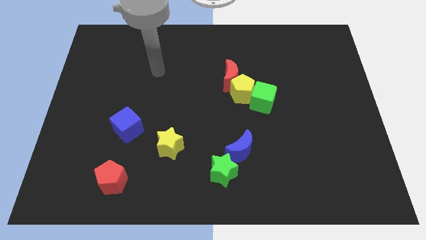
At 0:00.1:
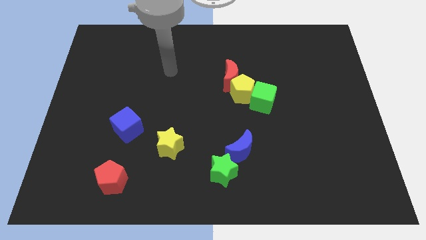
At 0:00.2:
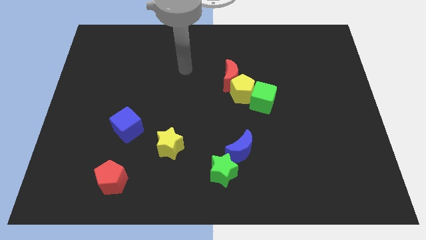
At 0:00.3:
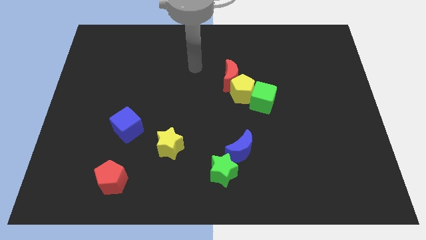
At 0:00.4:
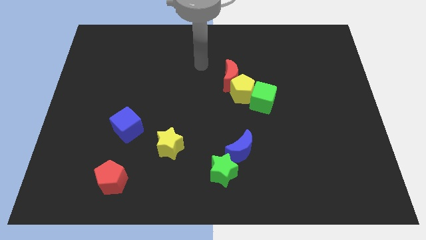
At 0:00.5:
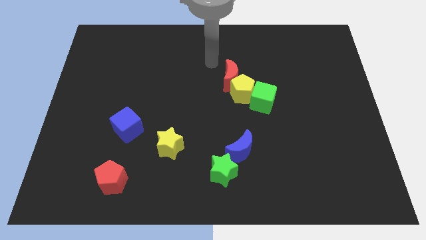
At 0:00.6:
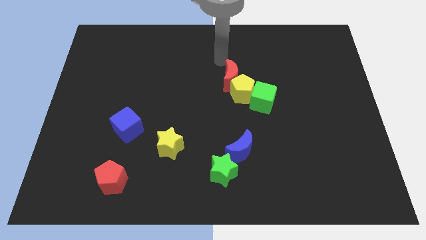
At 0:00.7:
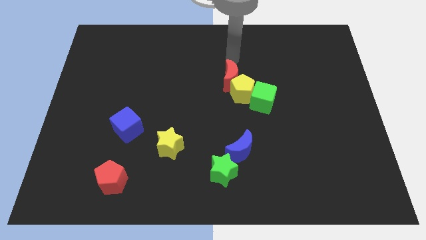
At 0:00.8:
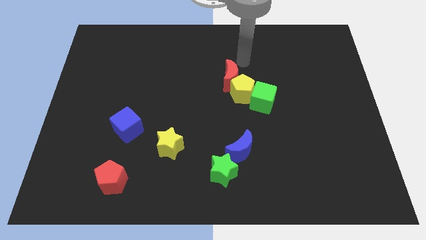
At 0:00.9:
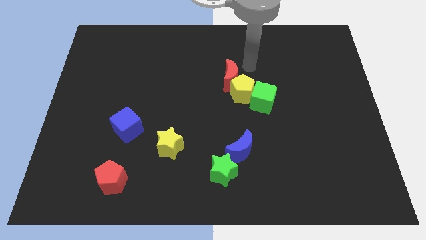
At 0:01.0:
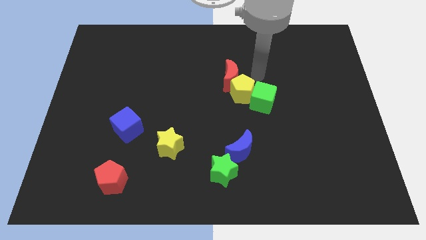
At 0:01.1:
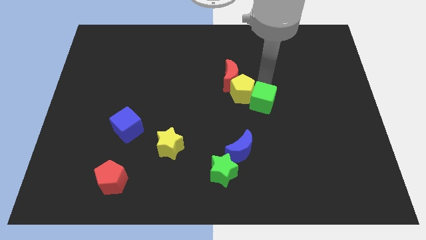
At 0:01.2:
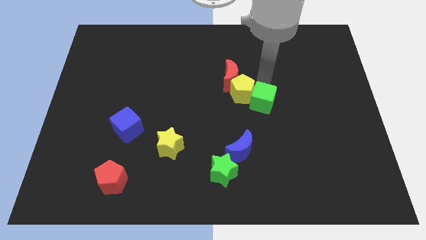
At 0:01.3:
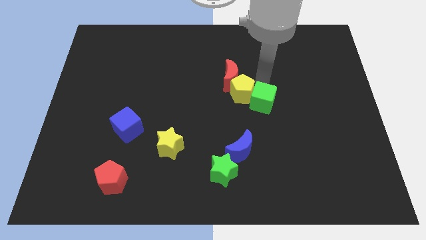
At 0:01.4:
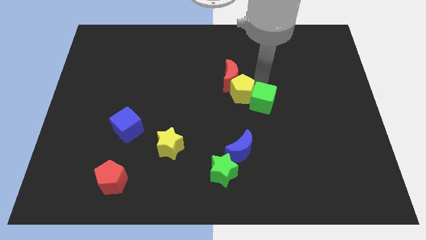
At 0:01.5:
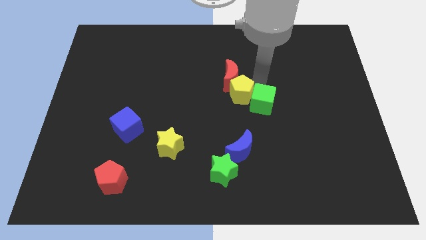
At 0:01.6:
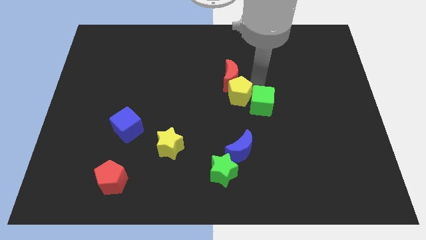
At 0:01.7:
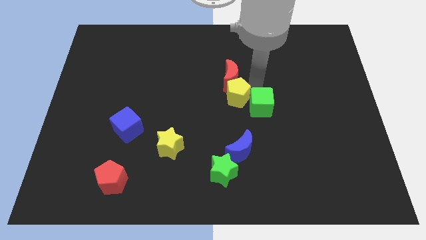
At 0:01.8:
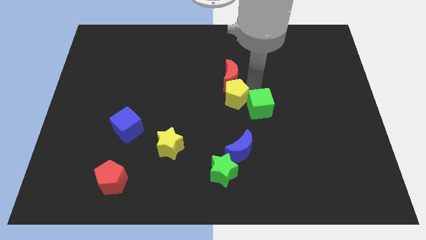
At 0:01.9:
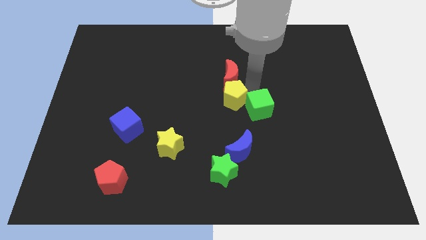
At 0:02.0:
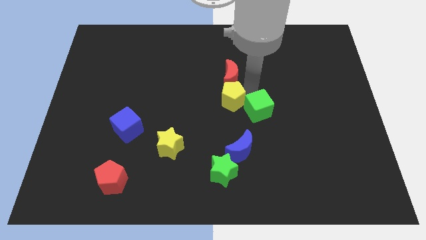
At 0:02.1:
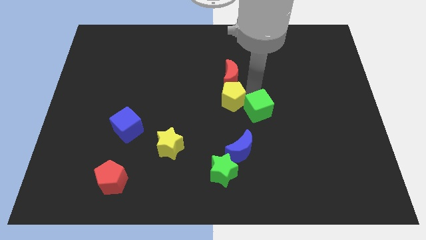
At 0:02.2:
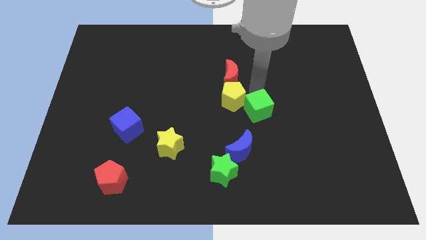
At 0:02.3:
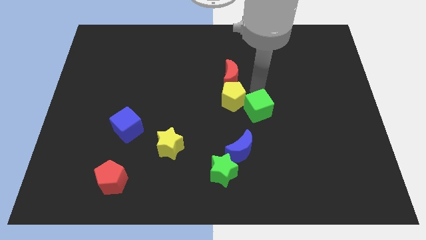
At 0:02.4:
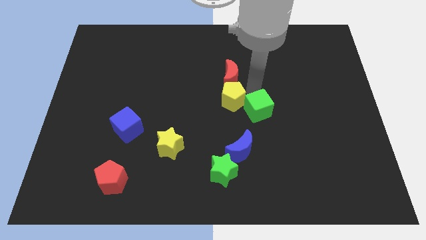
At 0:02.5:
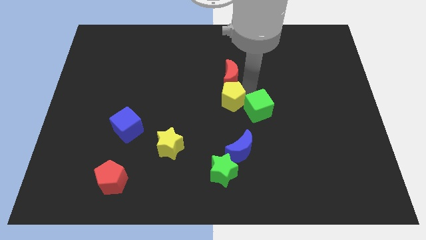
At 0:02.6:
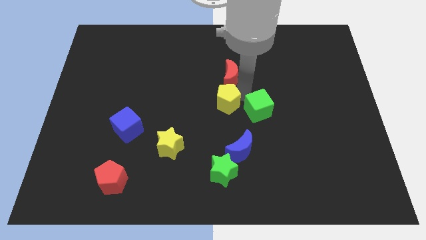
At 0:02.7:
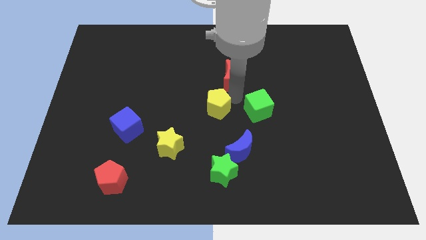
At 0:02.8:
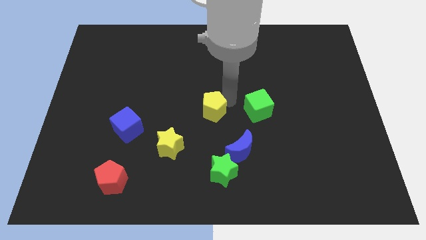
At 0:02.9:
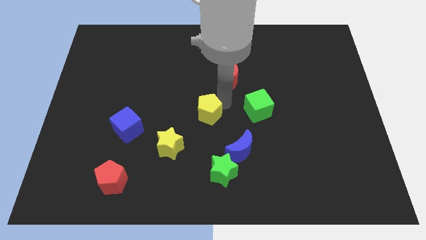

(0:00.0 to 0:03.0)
pull the yellow pentagon apart from the red moon and green cube

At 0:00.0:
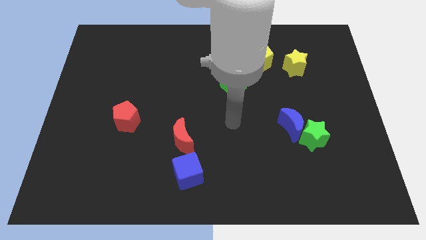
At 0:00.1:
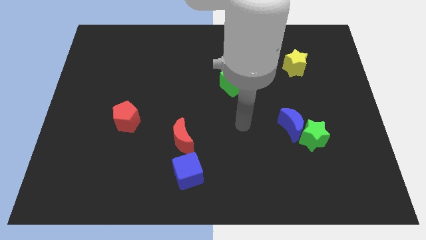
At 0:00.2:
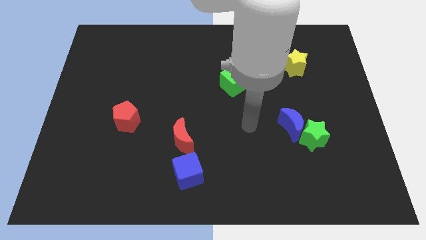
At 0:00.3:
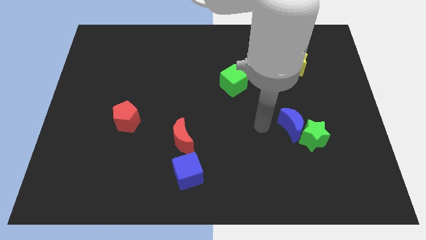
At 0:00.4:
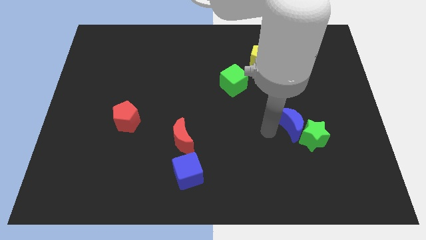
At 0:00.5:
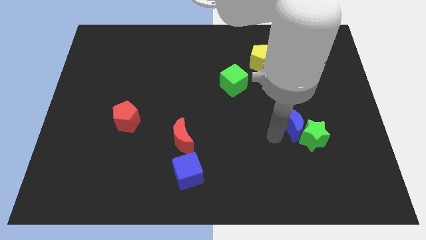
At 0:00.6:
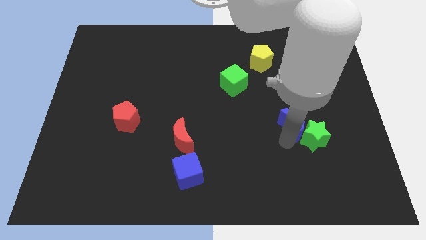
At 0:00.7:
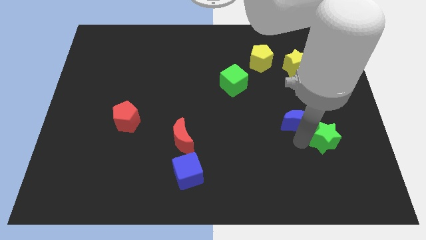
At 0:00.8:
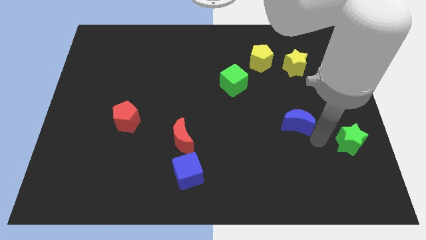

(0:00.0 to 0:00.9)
move the blue moon away from the green star

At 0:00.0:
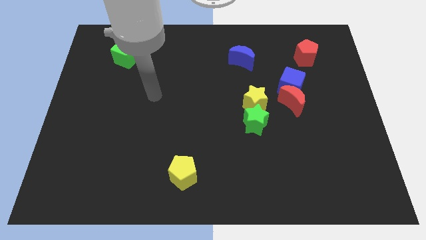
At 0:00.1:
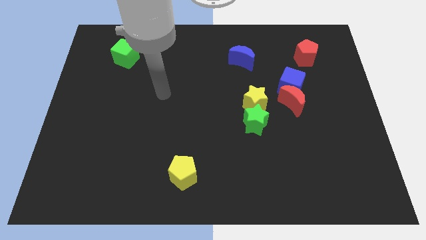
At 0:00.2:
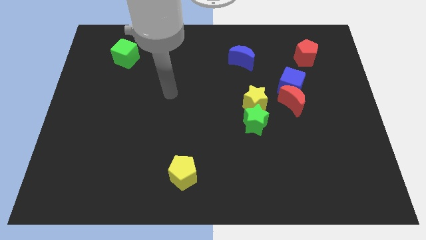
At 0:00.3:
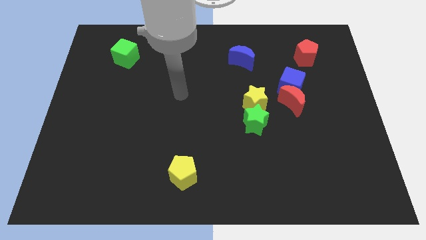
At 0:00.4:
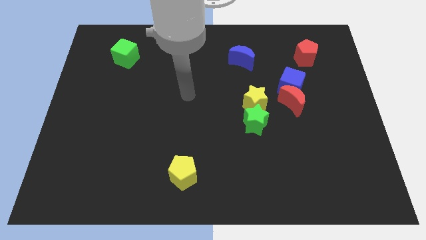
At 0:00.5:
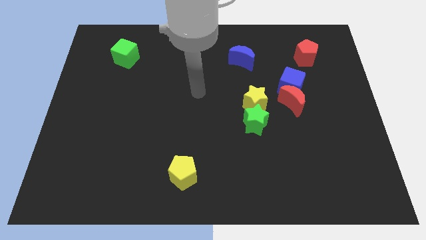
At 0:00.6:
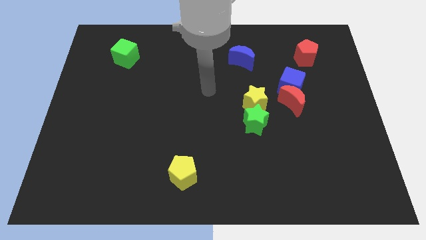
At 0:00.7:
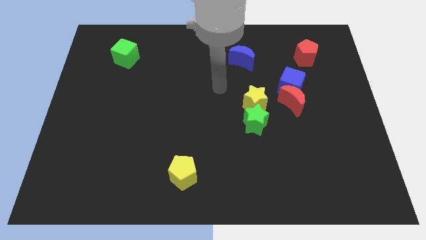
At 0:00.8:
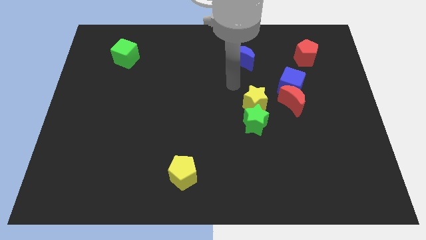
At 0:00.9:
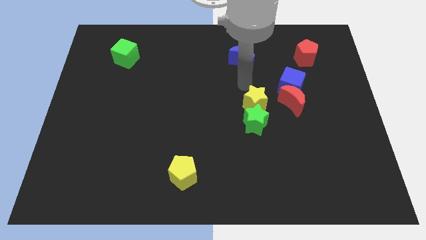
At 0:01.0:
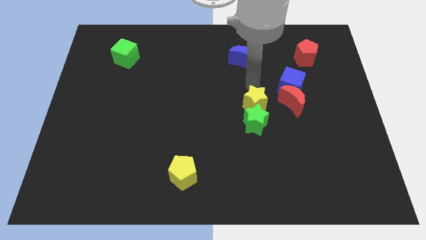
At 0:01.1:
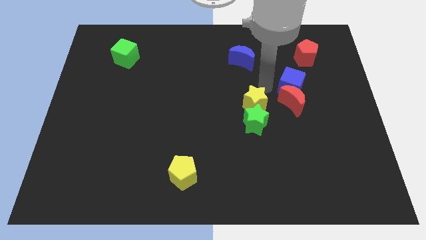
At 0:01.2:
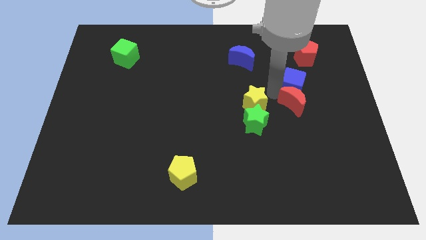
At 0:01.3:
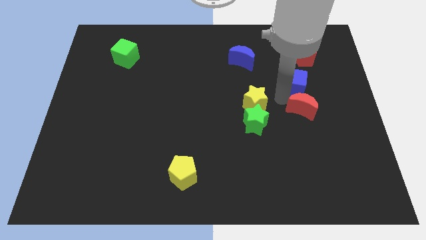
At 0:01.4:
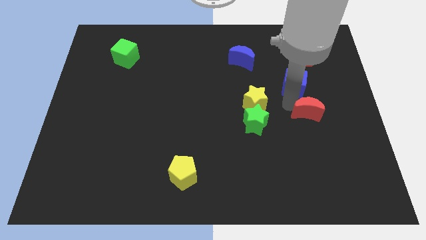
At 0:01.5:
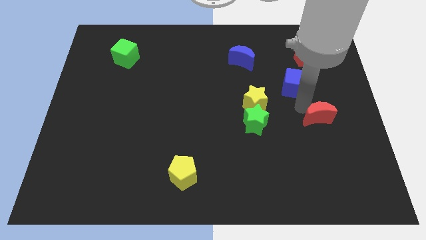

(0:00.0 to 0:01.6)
pull the blue cube apart from the red moon

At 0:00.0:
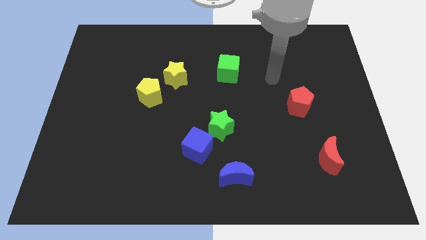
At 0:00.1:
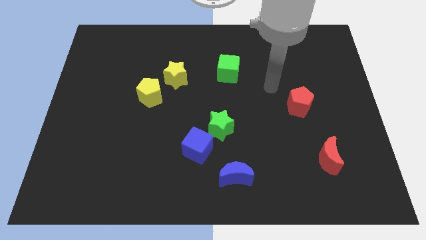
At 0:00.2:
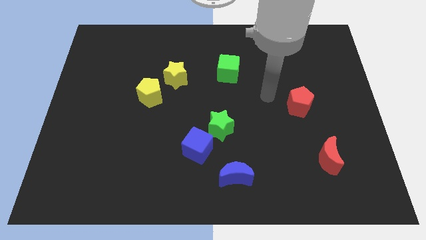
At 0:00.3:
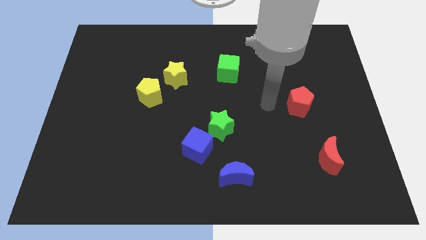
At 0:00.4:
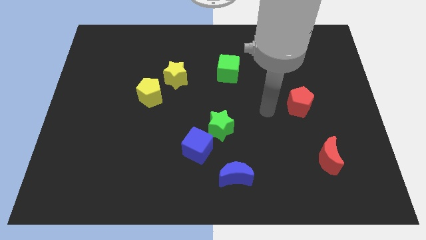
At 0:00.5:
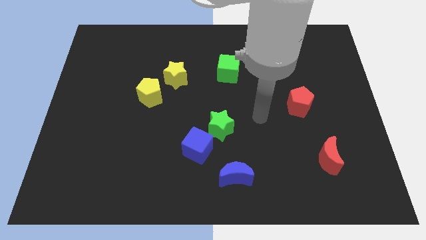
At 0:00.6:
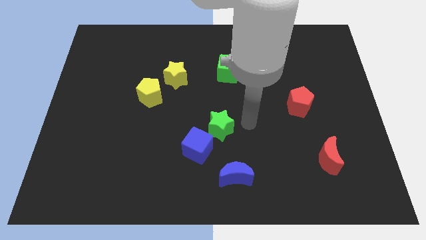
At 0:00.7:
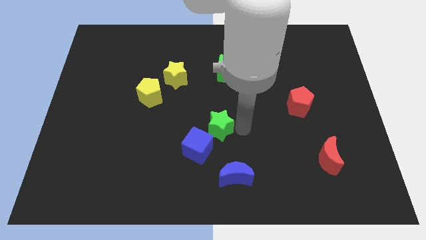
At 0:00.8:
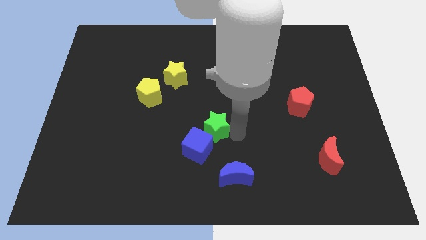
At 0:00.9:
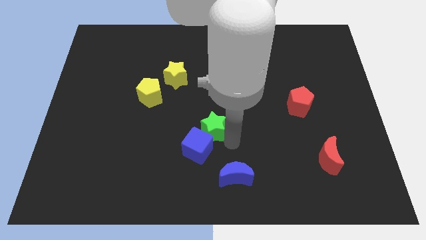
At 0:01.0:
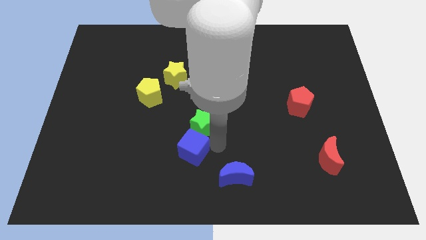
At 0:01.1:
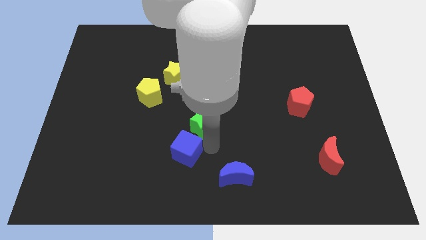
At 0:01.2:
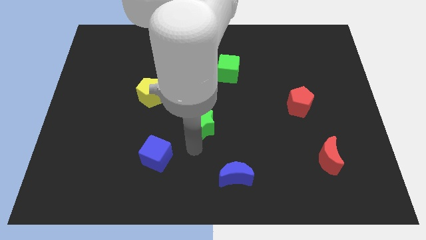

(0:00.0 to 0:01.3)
move the green star away from the blue cube

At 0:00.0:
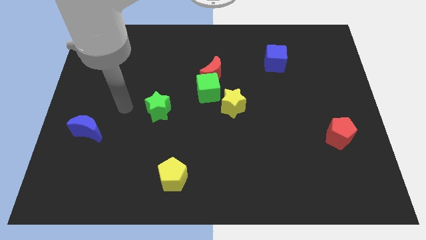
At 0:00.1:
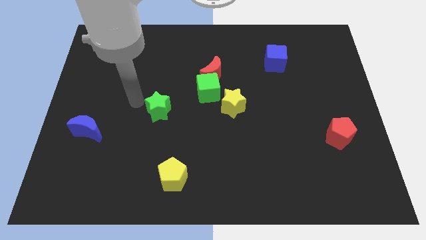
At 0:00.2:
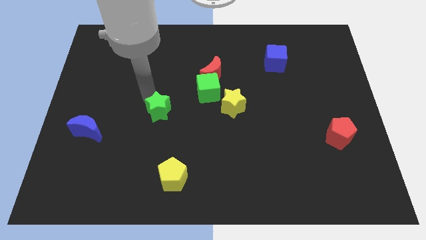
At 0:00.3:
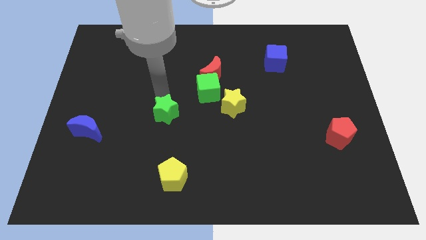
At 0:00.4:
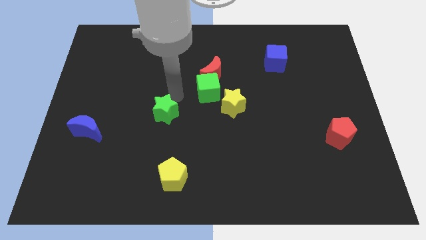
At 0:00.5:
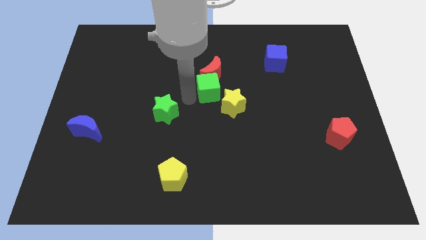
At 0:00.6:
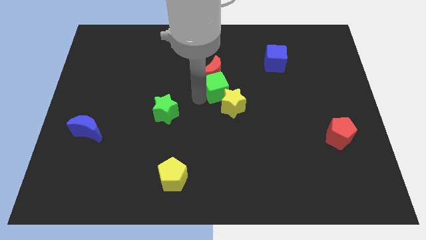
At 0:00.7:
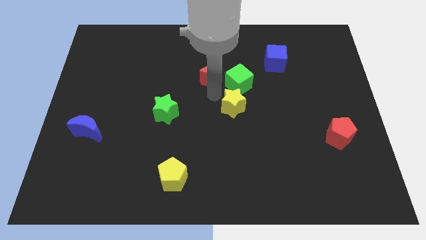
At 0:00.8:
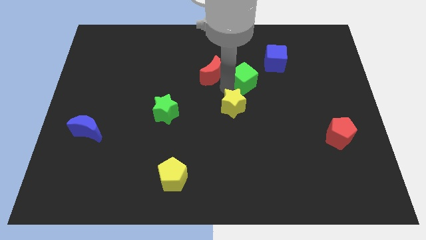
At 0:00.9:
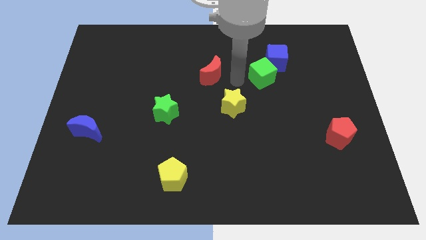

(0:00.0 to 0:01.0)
move the red moon away from the green cube

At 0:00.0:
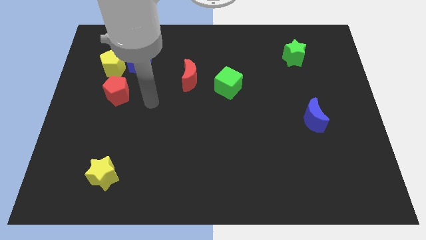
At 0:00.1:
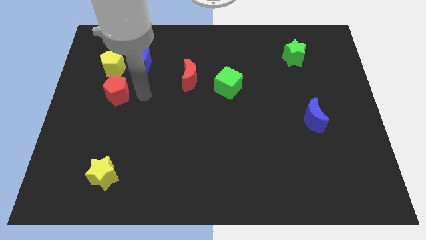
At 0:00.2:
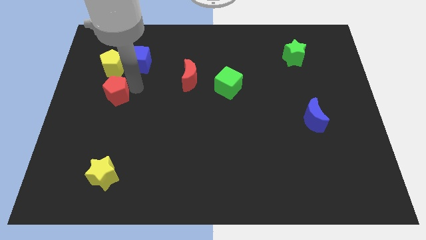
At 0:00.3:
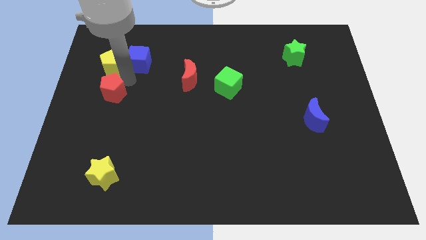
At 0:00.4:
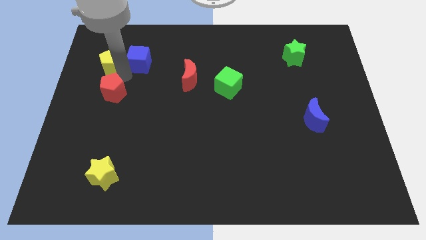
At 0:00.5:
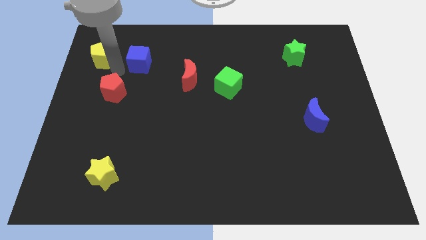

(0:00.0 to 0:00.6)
pull the blue cube apart from the yellow pentagon
